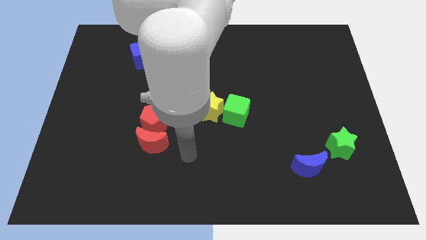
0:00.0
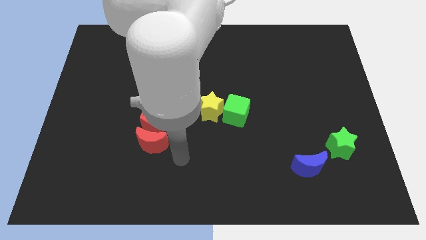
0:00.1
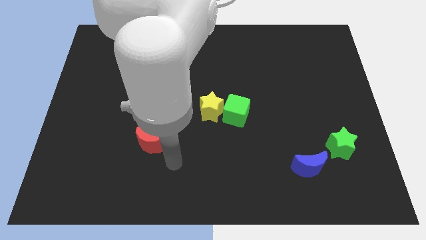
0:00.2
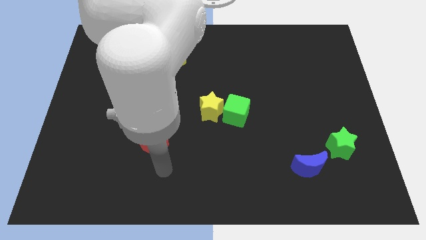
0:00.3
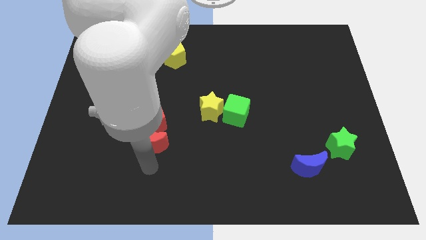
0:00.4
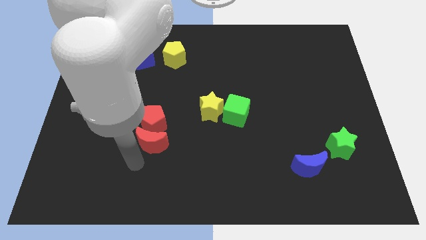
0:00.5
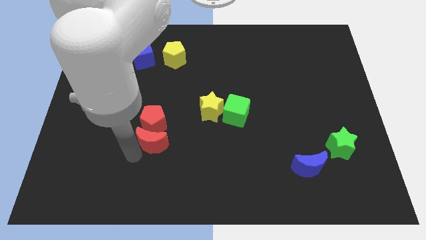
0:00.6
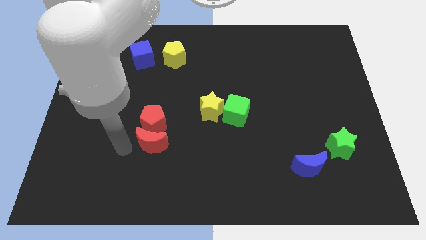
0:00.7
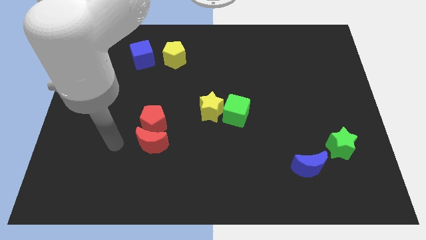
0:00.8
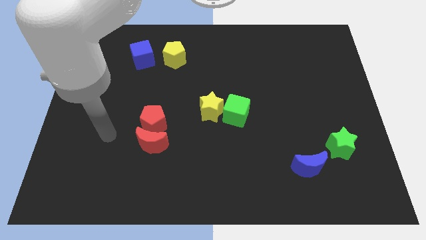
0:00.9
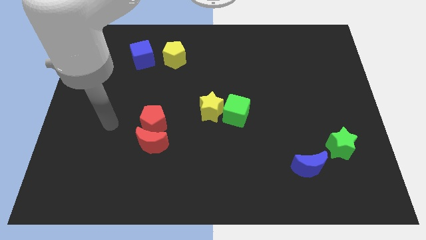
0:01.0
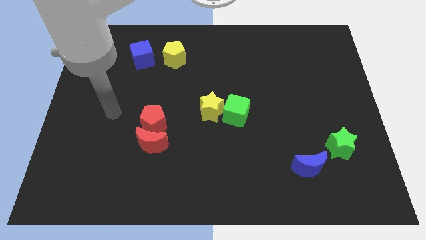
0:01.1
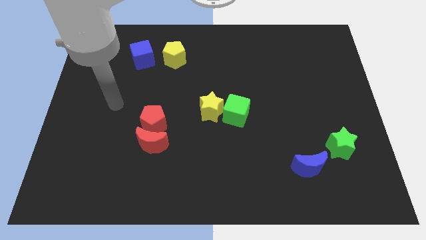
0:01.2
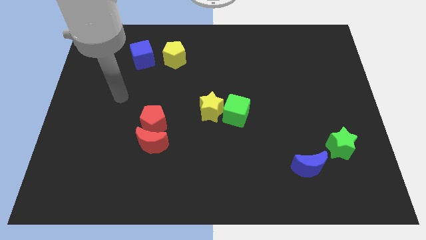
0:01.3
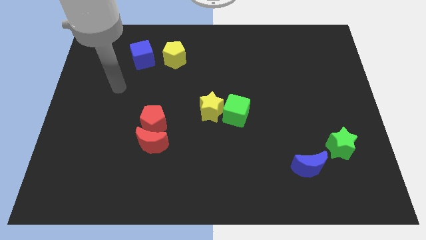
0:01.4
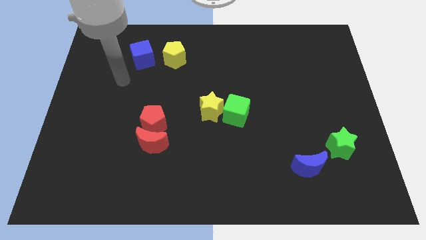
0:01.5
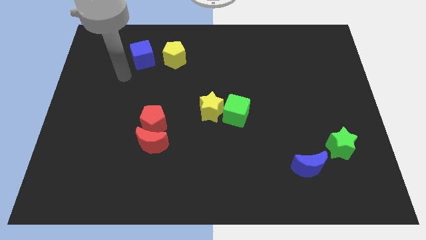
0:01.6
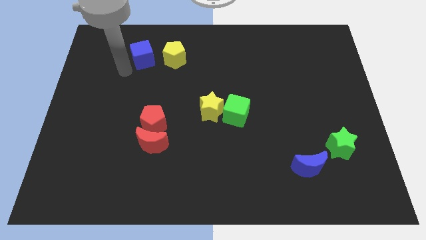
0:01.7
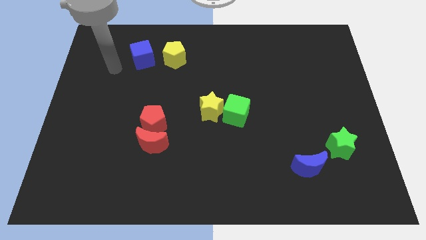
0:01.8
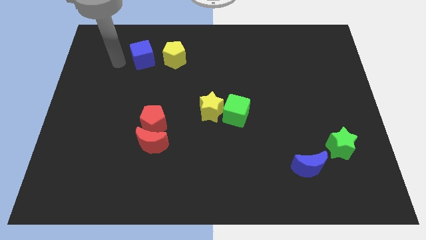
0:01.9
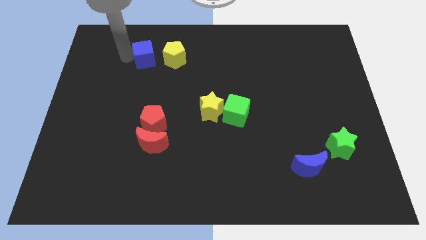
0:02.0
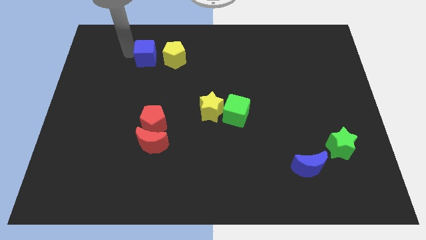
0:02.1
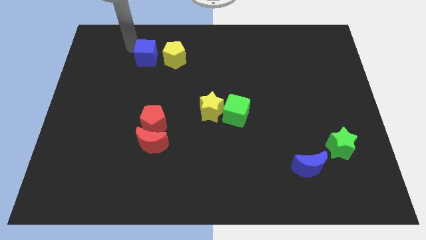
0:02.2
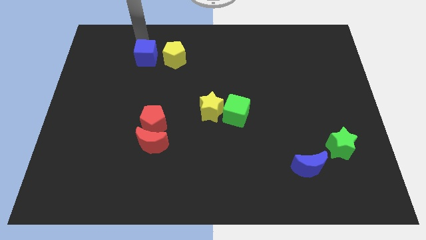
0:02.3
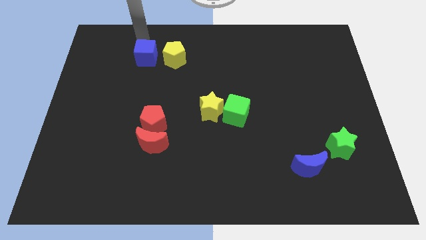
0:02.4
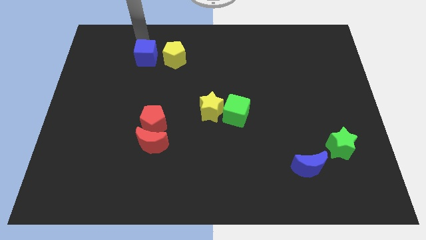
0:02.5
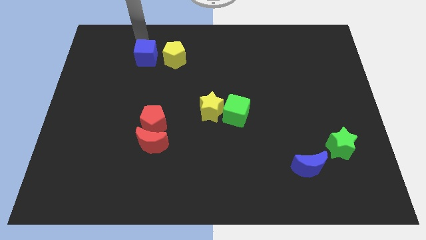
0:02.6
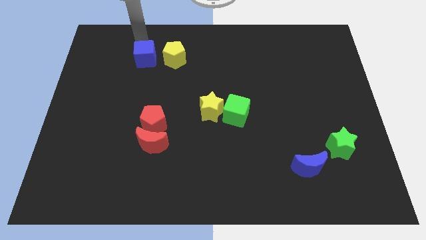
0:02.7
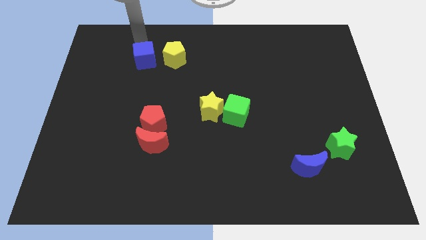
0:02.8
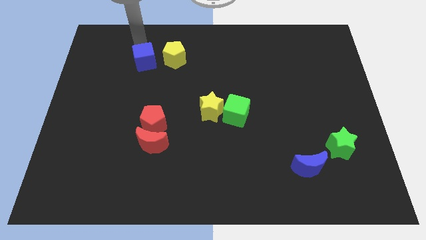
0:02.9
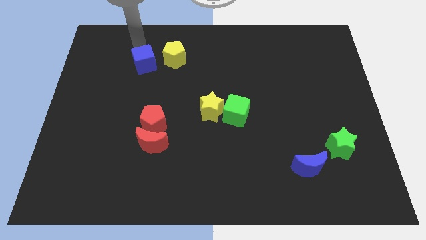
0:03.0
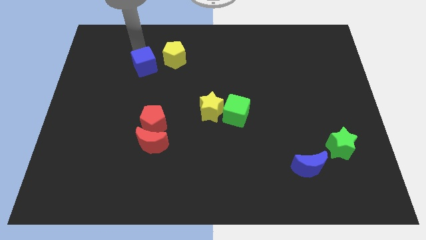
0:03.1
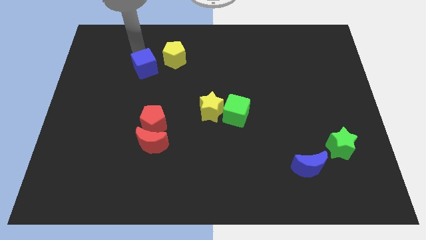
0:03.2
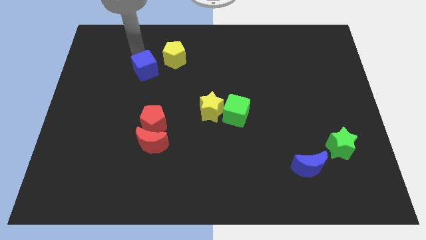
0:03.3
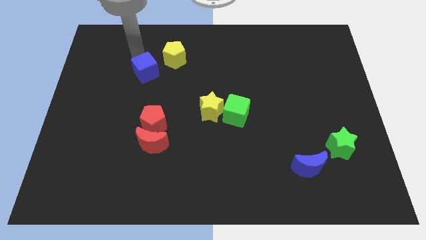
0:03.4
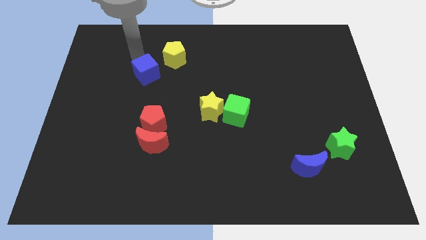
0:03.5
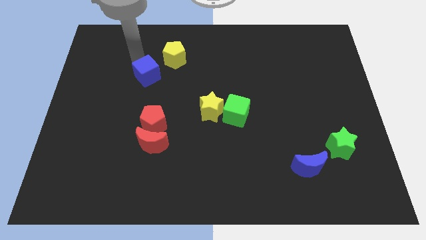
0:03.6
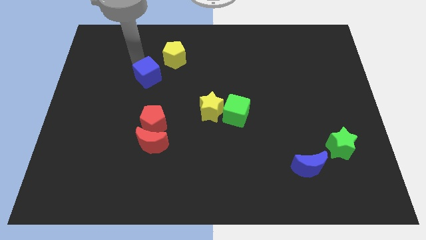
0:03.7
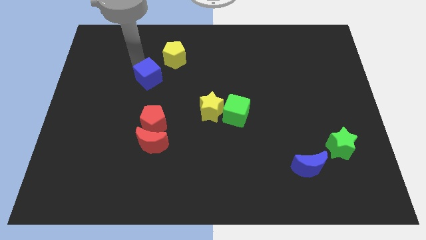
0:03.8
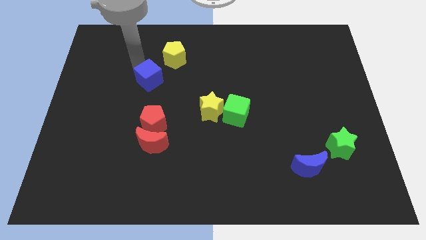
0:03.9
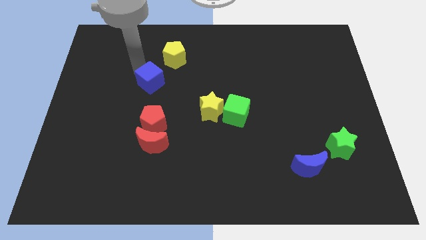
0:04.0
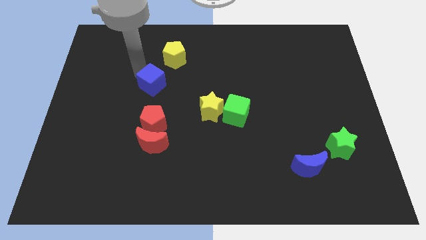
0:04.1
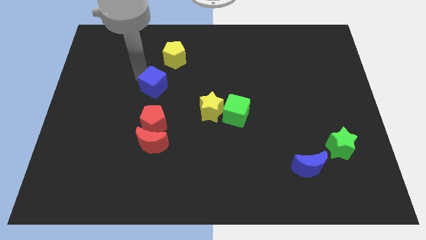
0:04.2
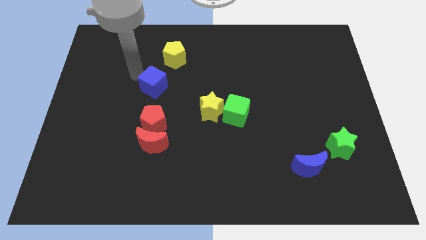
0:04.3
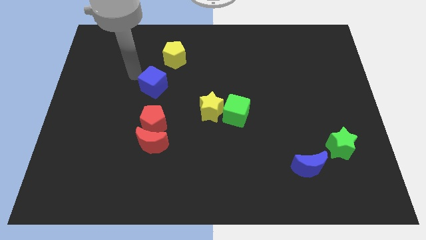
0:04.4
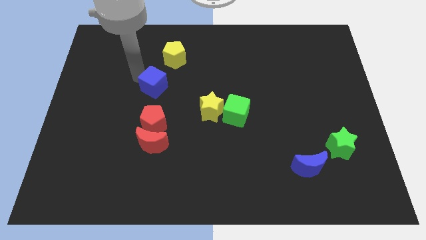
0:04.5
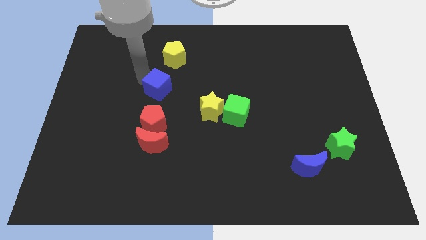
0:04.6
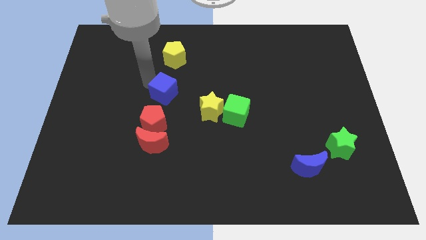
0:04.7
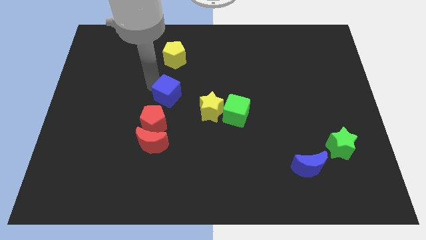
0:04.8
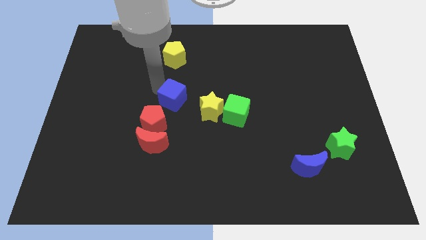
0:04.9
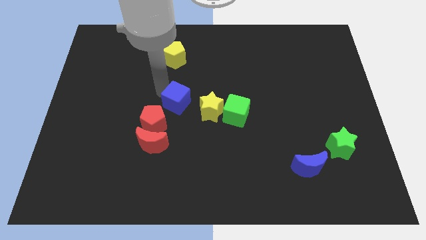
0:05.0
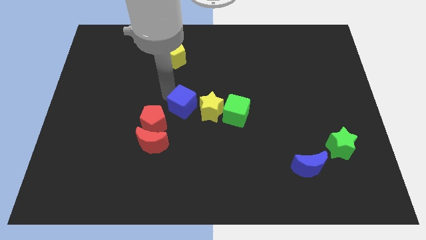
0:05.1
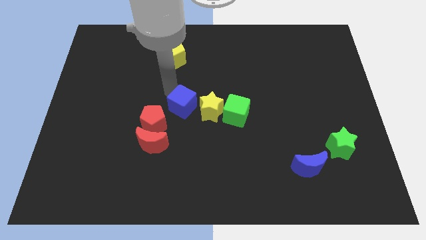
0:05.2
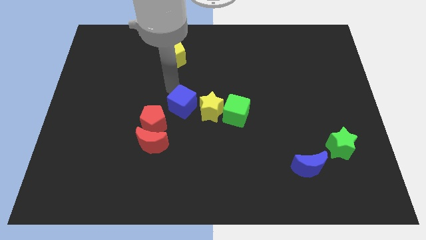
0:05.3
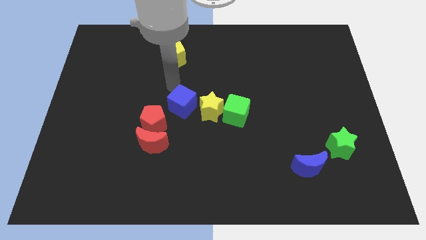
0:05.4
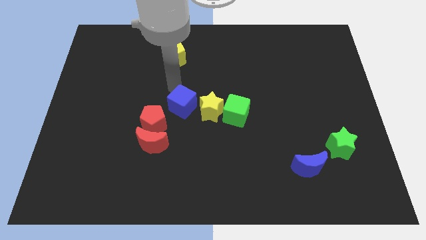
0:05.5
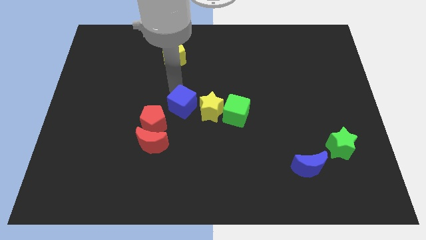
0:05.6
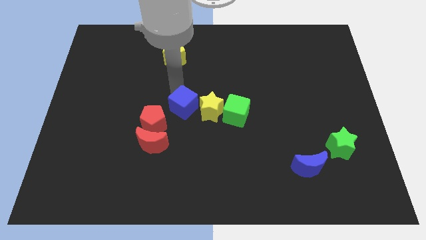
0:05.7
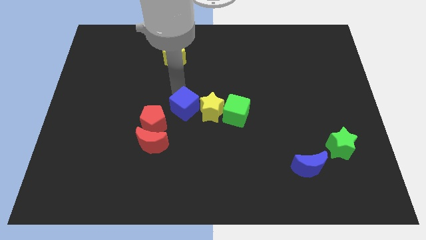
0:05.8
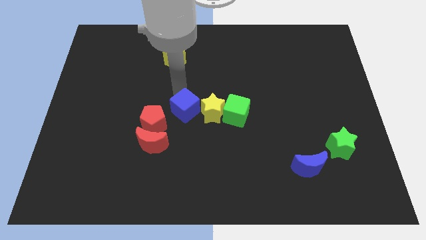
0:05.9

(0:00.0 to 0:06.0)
push the blue cube down and then right

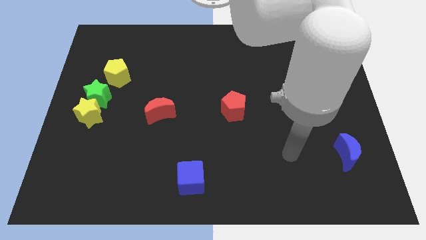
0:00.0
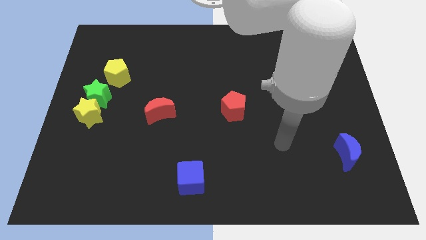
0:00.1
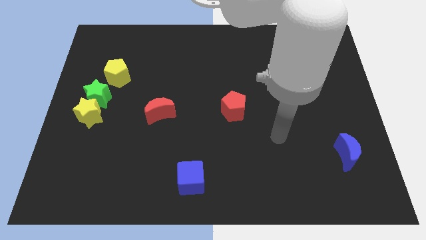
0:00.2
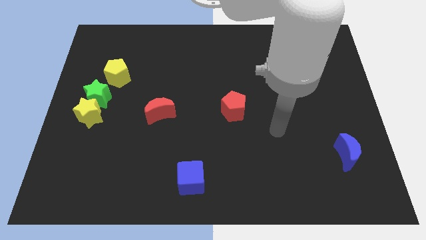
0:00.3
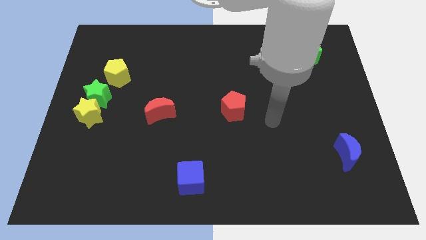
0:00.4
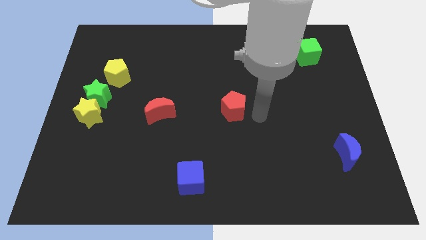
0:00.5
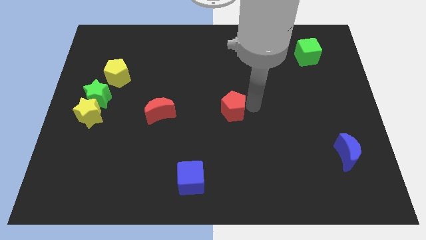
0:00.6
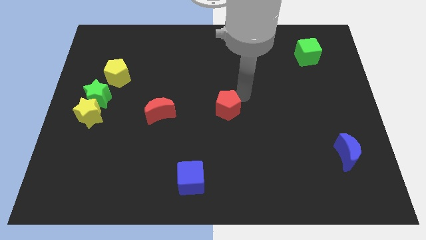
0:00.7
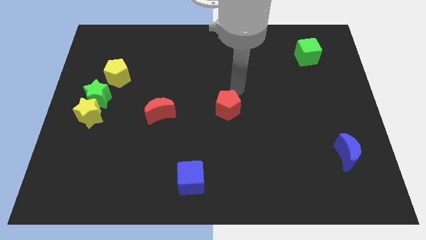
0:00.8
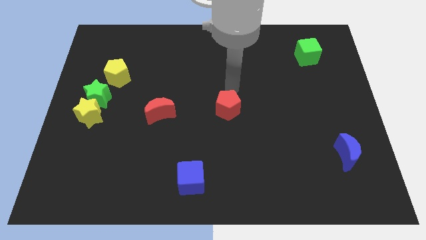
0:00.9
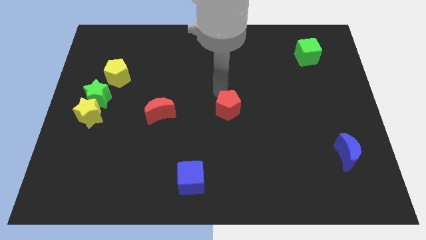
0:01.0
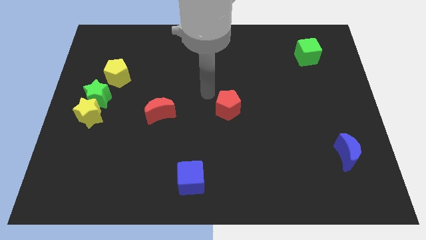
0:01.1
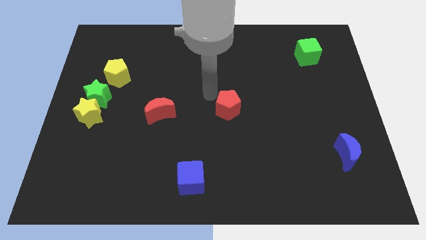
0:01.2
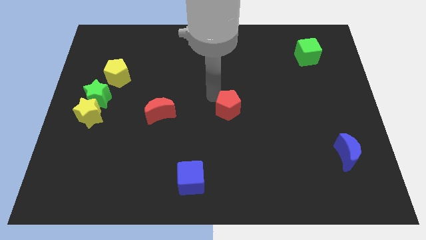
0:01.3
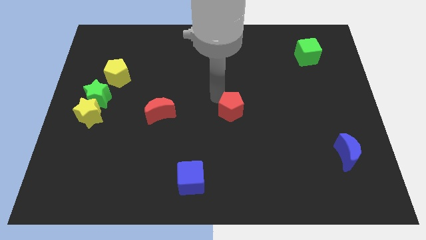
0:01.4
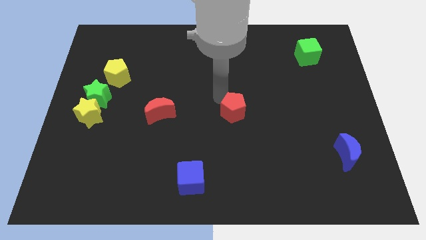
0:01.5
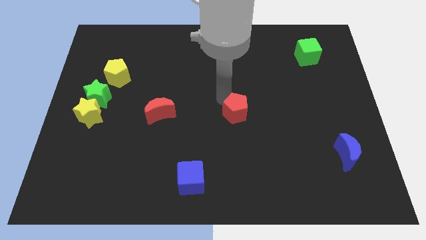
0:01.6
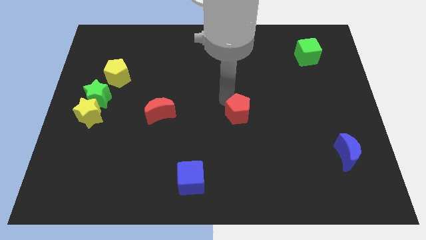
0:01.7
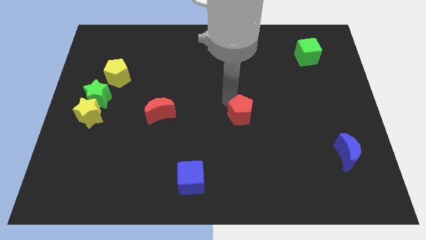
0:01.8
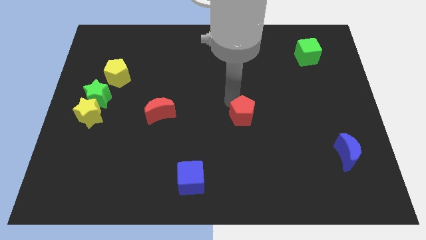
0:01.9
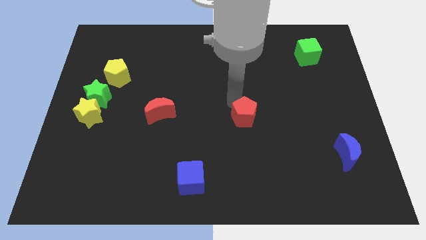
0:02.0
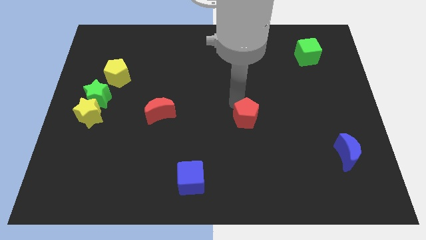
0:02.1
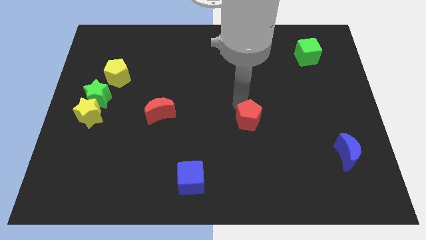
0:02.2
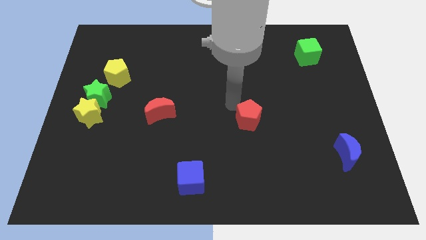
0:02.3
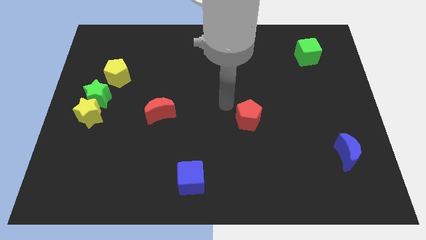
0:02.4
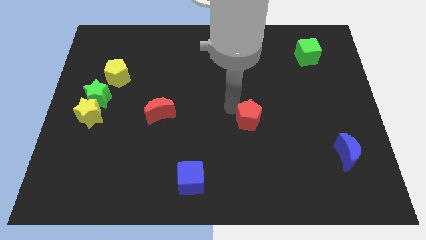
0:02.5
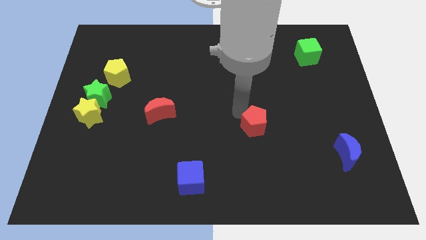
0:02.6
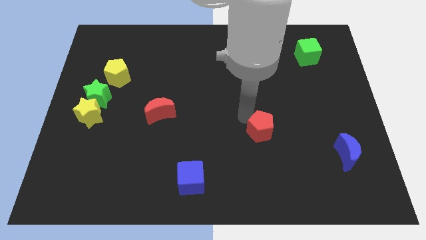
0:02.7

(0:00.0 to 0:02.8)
slide the red pentagon down and to the right slightly
